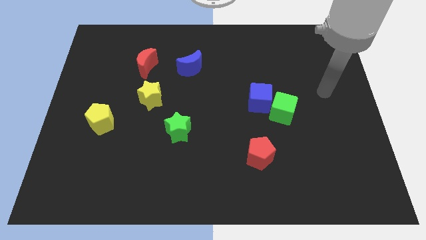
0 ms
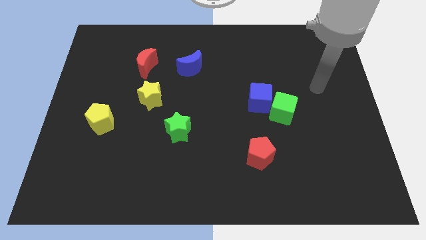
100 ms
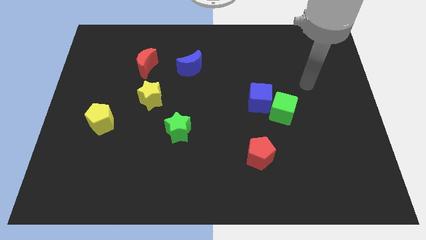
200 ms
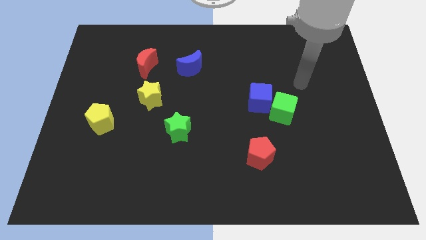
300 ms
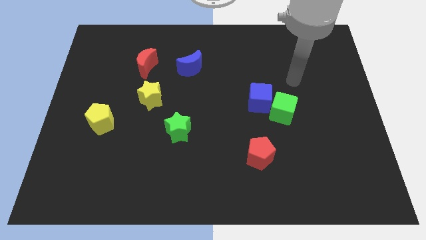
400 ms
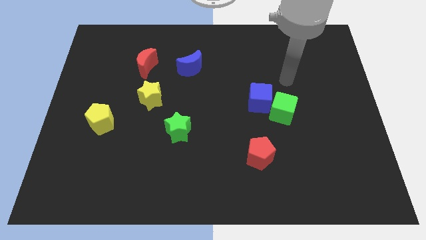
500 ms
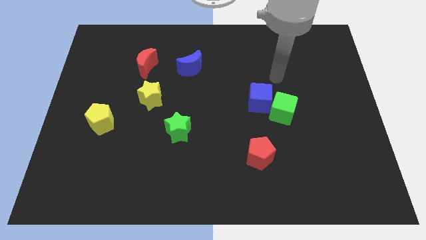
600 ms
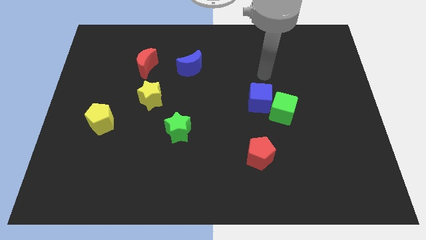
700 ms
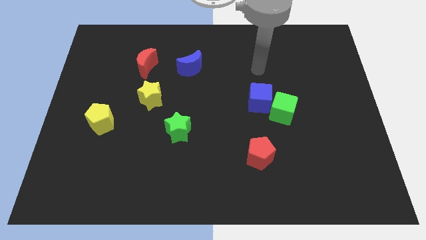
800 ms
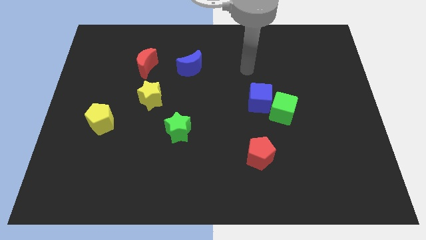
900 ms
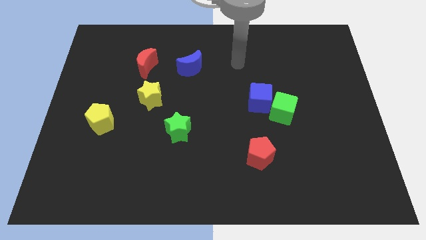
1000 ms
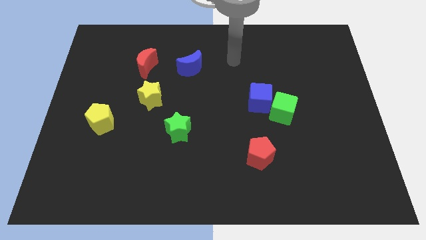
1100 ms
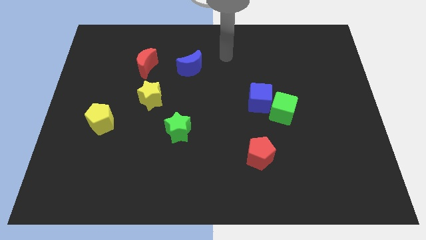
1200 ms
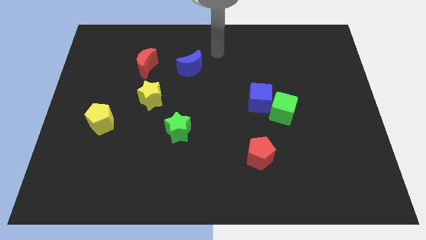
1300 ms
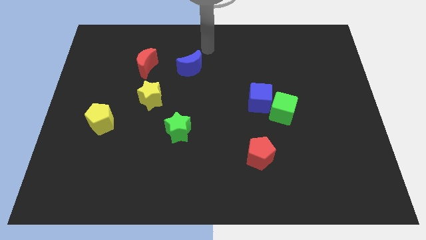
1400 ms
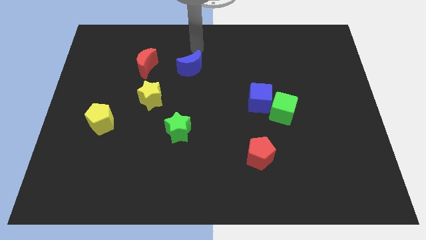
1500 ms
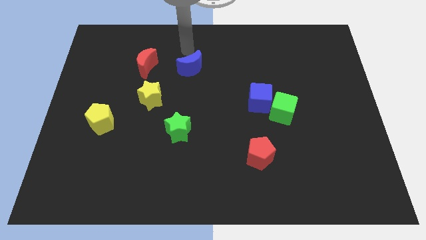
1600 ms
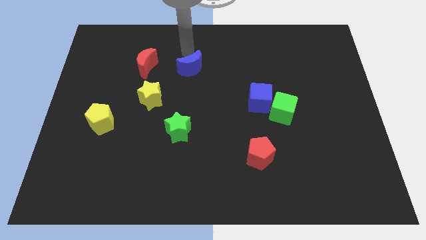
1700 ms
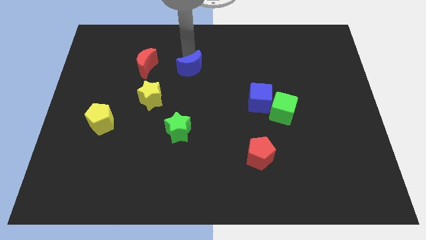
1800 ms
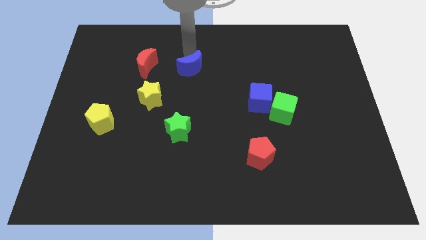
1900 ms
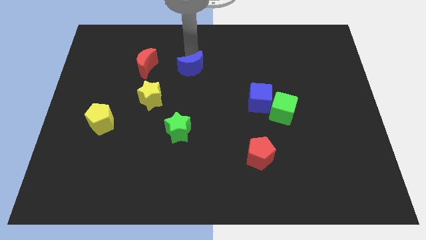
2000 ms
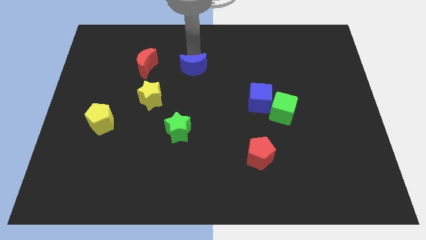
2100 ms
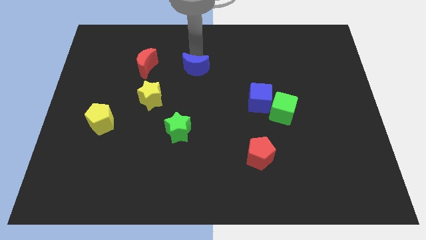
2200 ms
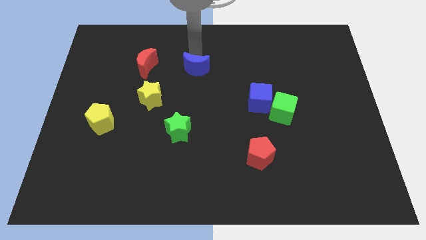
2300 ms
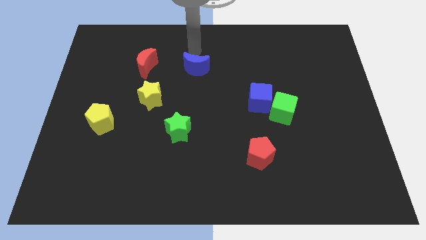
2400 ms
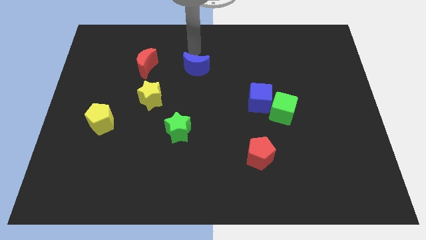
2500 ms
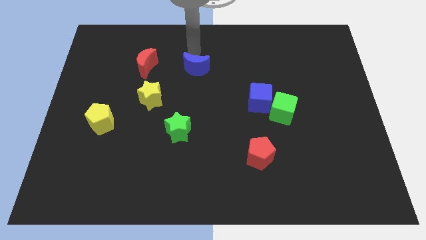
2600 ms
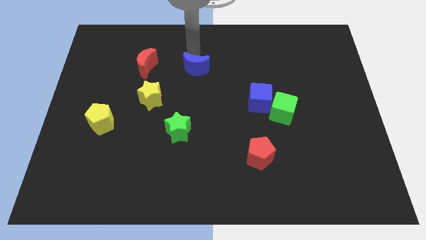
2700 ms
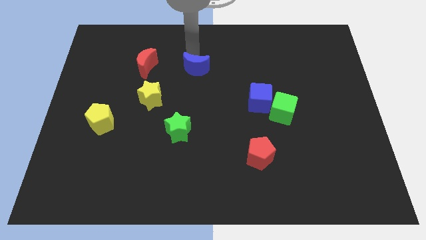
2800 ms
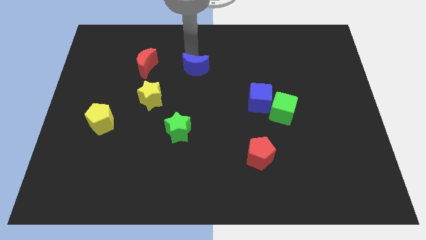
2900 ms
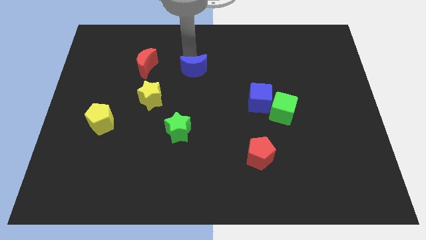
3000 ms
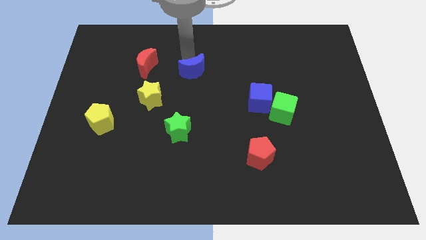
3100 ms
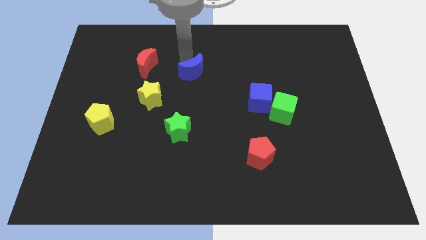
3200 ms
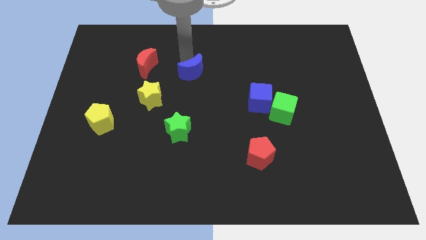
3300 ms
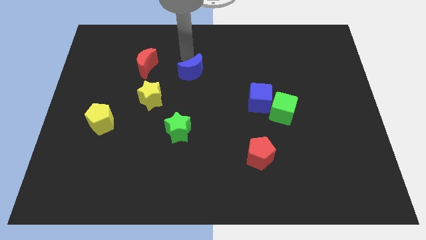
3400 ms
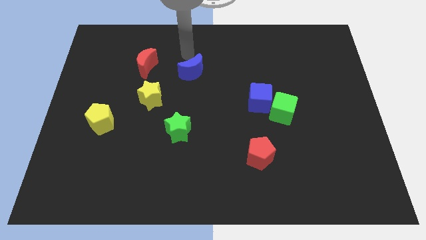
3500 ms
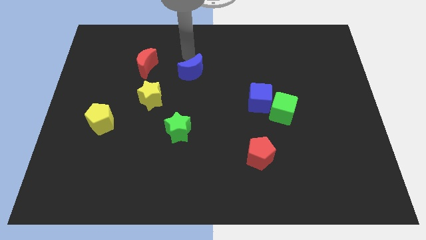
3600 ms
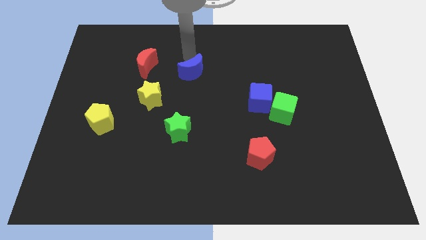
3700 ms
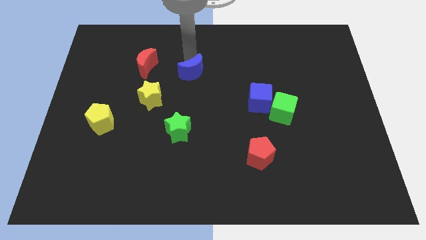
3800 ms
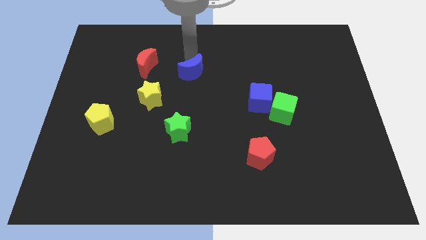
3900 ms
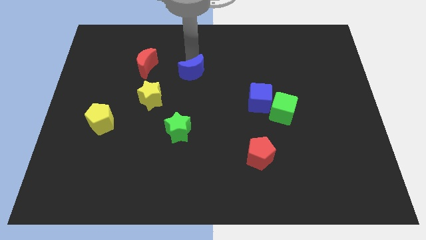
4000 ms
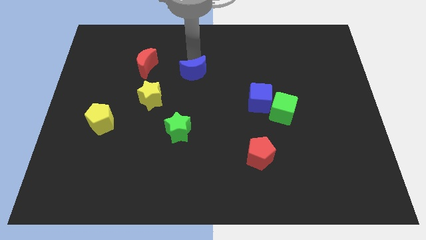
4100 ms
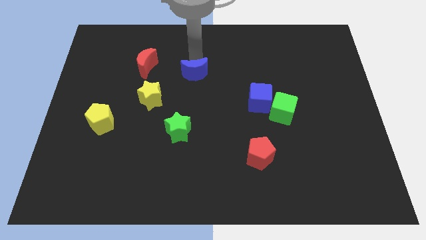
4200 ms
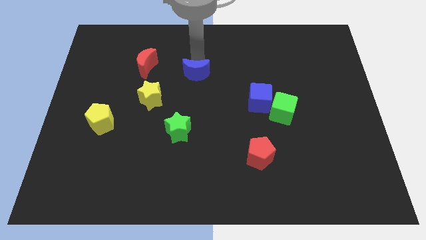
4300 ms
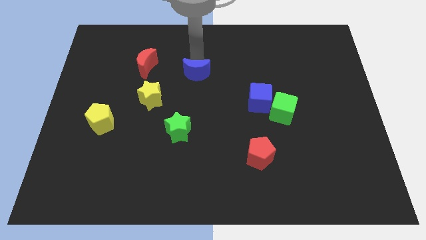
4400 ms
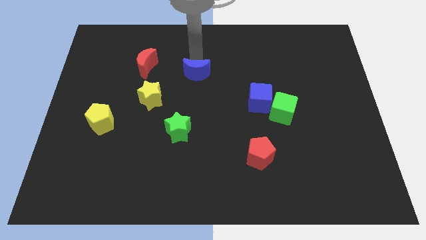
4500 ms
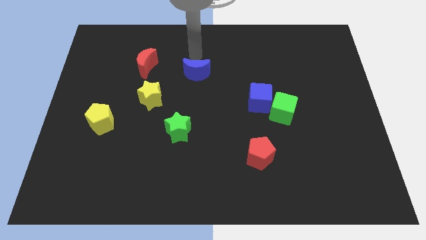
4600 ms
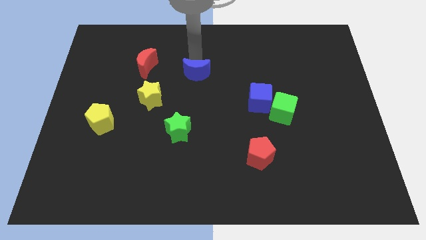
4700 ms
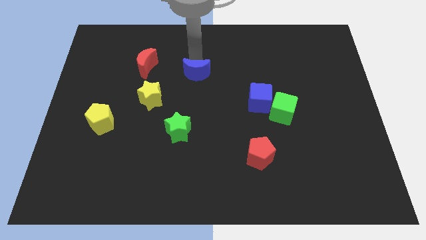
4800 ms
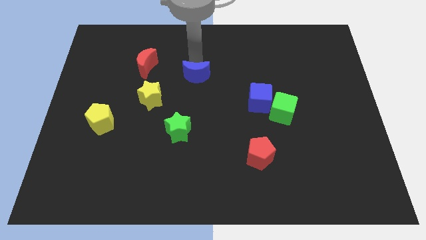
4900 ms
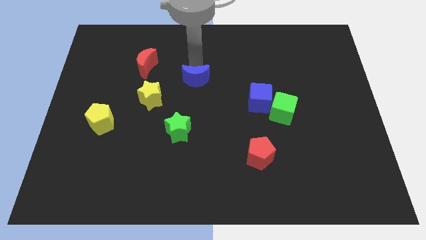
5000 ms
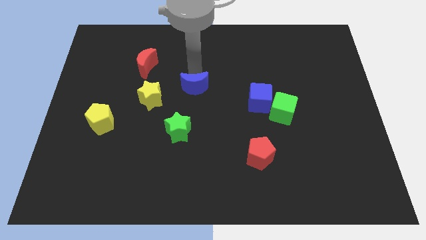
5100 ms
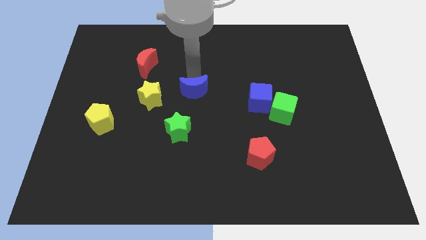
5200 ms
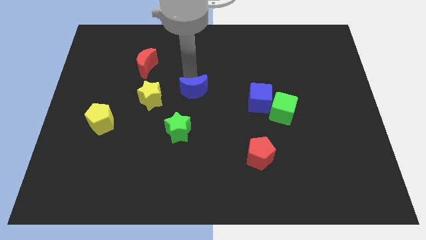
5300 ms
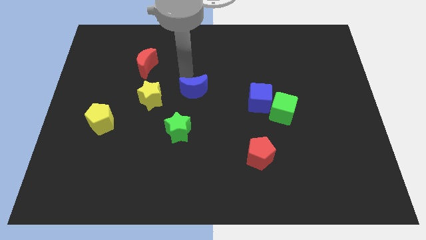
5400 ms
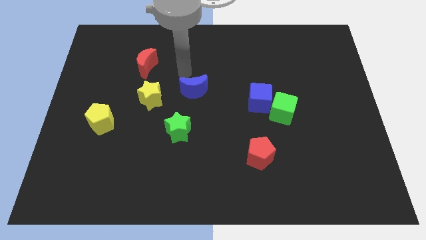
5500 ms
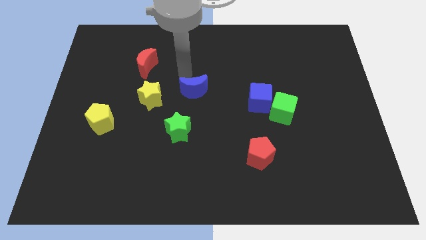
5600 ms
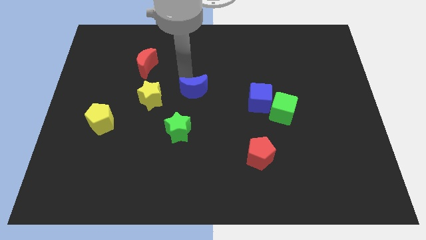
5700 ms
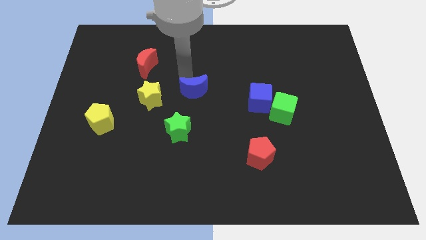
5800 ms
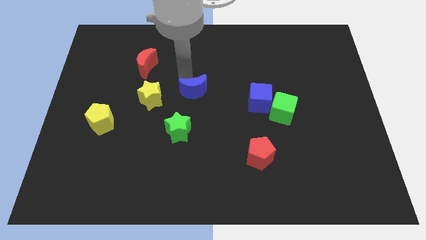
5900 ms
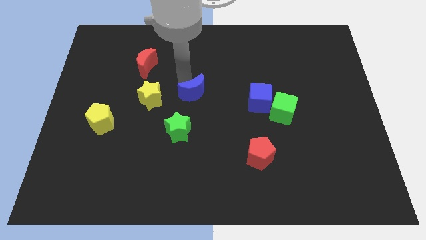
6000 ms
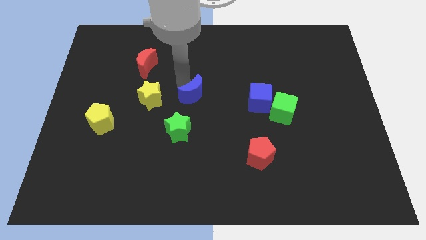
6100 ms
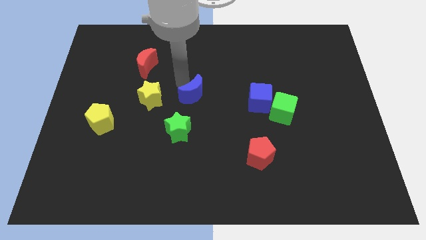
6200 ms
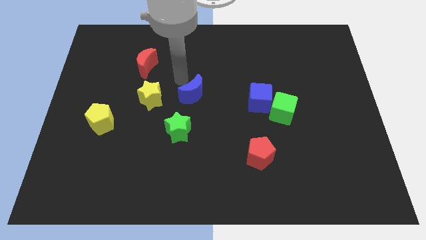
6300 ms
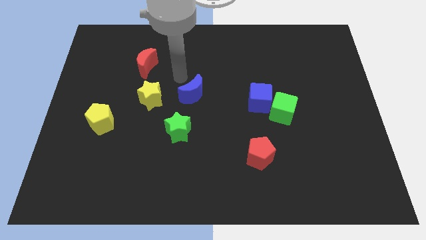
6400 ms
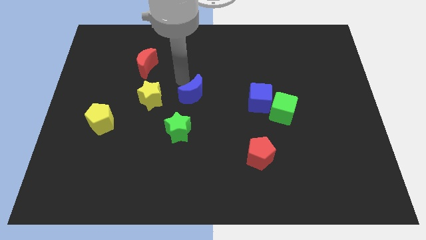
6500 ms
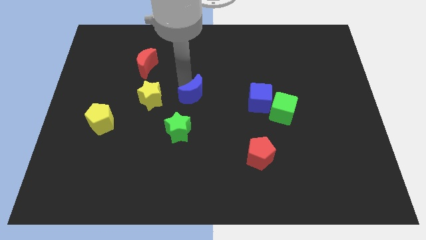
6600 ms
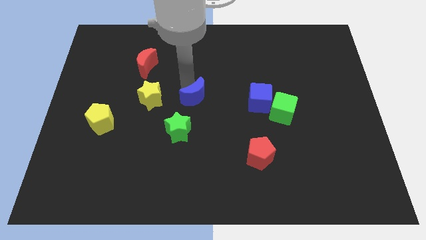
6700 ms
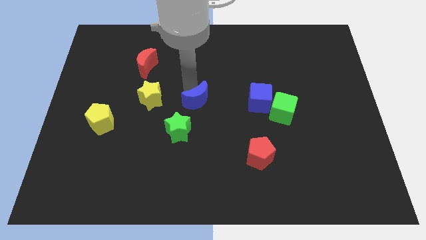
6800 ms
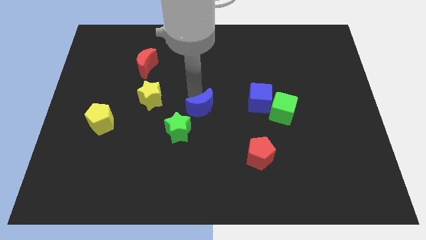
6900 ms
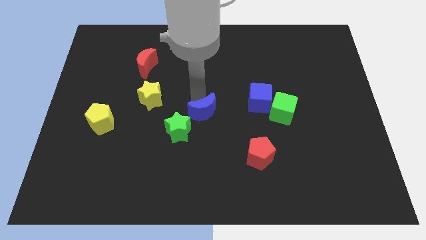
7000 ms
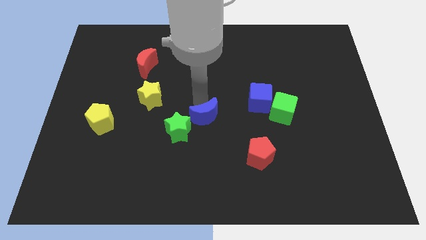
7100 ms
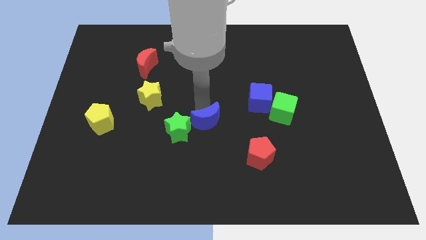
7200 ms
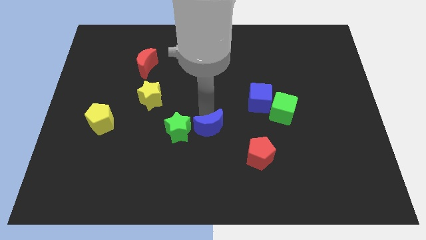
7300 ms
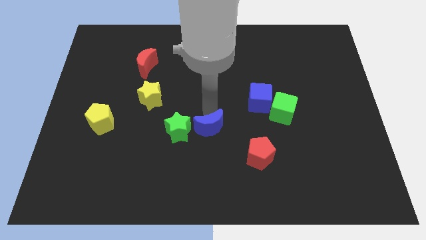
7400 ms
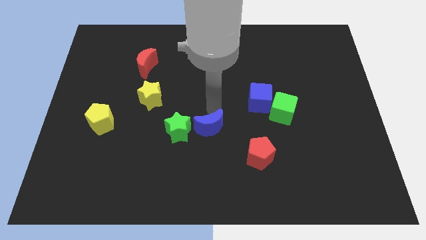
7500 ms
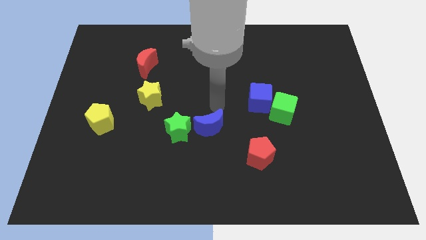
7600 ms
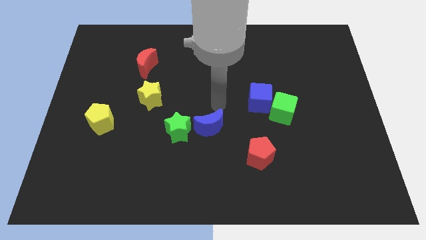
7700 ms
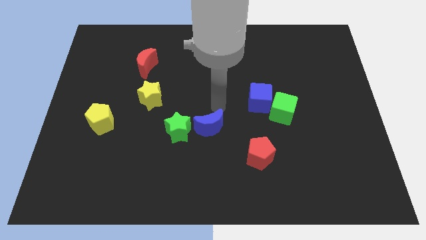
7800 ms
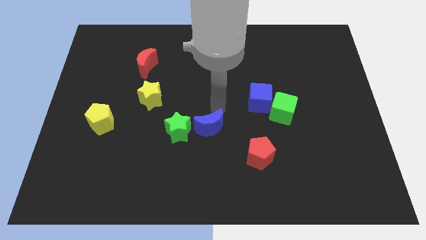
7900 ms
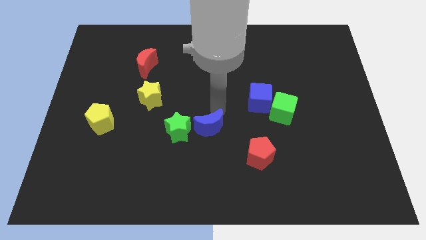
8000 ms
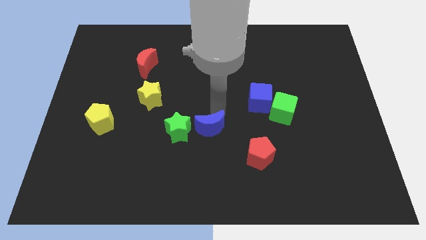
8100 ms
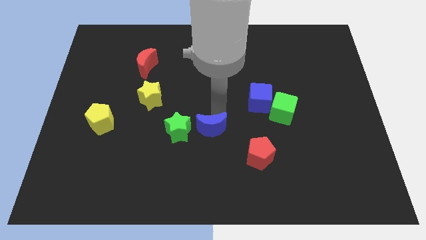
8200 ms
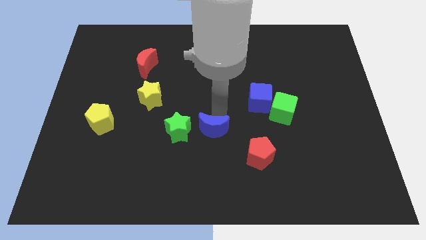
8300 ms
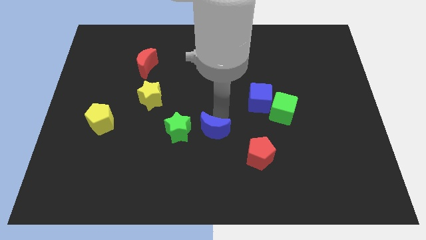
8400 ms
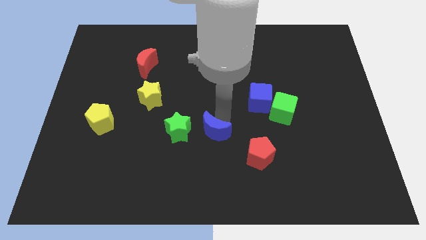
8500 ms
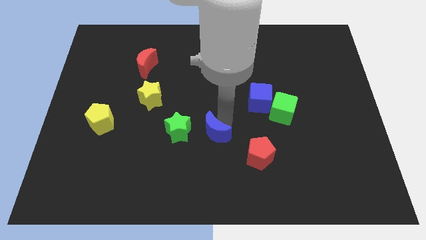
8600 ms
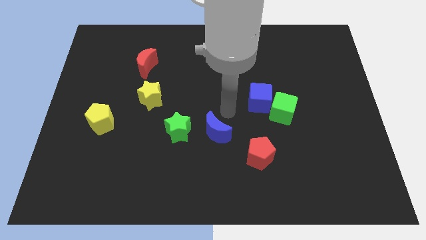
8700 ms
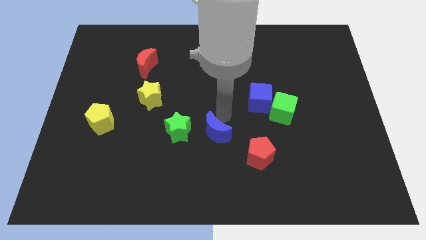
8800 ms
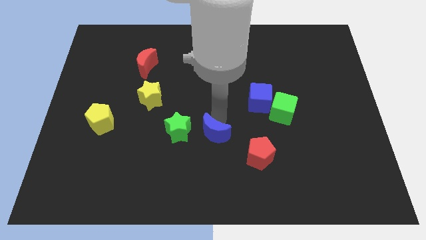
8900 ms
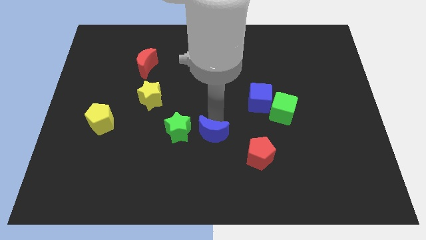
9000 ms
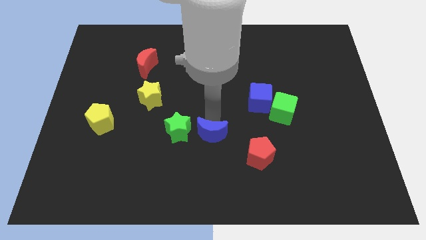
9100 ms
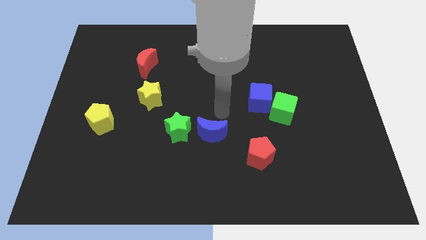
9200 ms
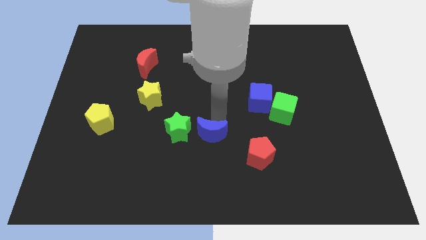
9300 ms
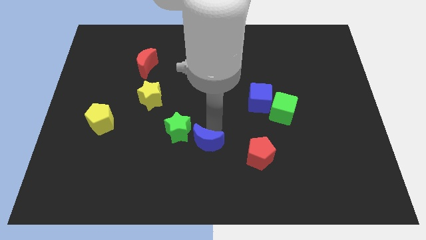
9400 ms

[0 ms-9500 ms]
move the blue moon downwards
